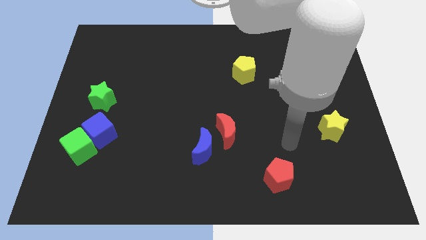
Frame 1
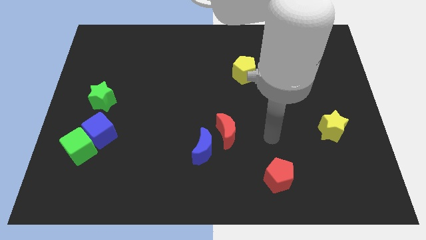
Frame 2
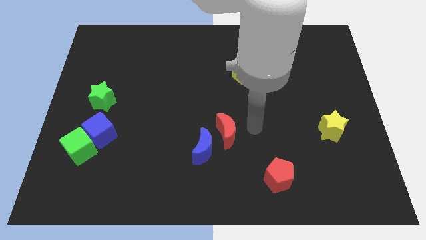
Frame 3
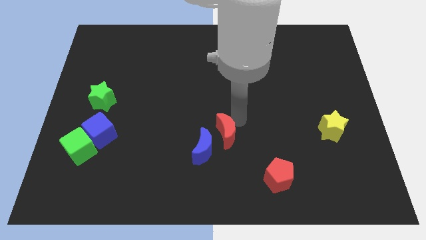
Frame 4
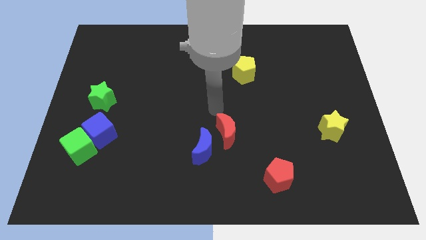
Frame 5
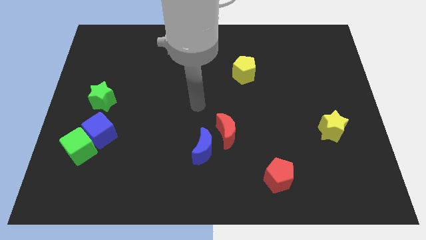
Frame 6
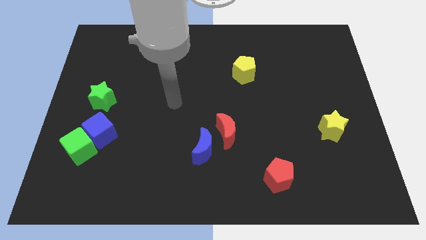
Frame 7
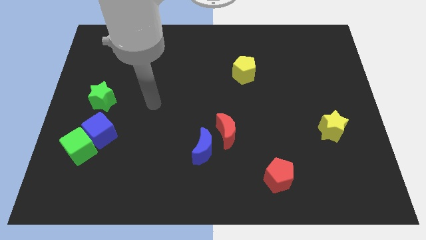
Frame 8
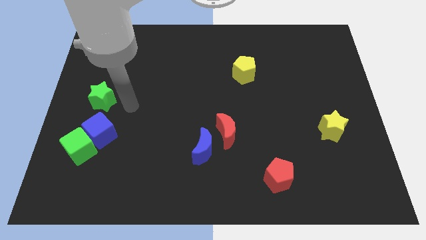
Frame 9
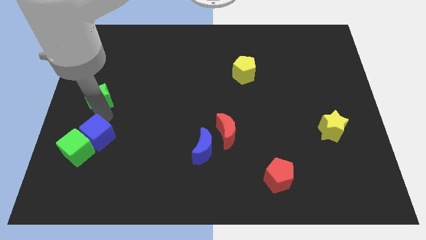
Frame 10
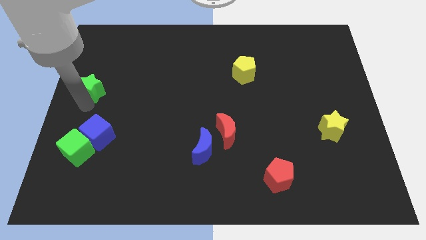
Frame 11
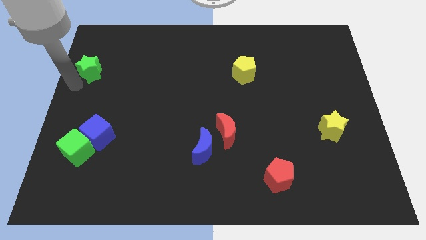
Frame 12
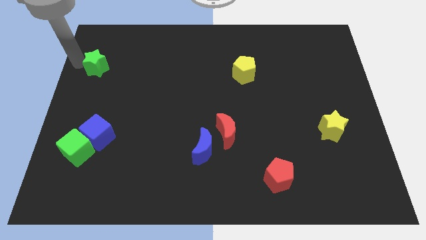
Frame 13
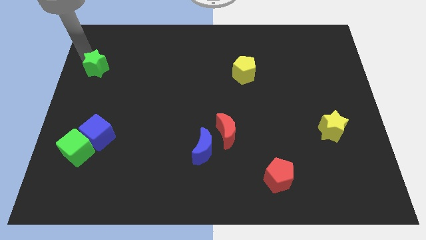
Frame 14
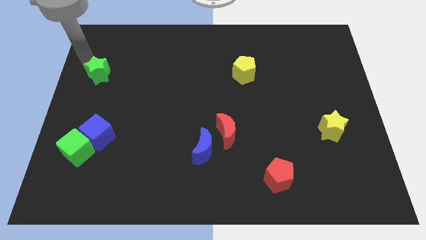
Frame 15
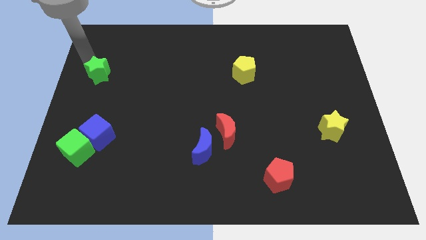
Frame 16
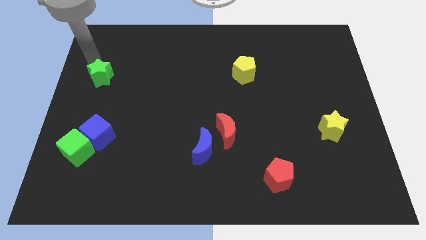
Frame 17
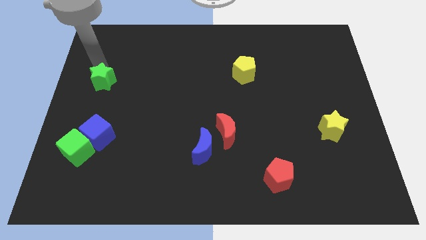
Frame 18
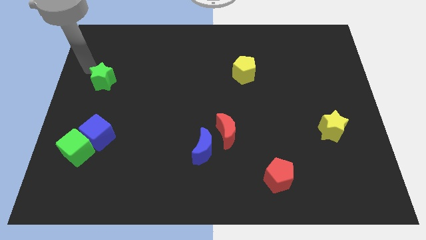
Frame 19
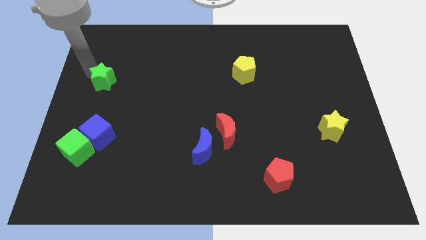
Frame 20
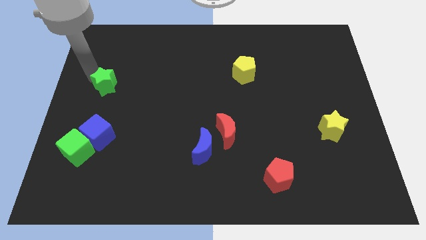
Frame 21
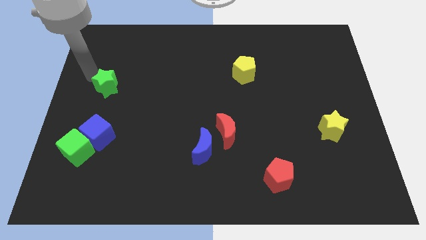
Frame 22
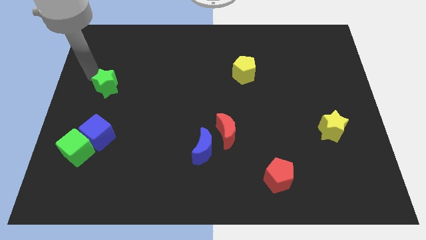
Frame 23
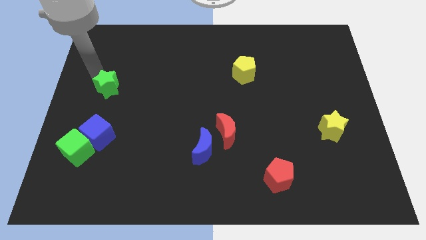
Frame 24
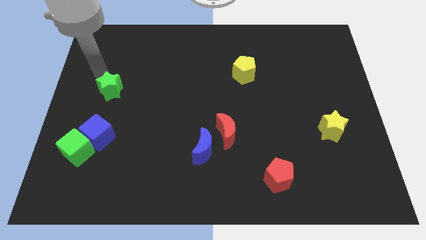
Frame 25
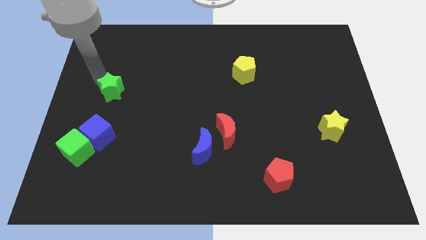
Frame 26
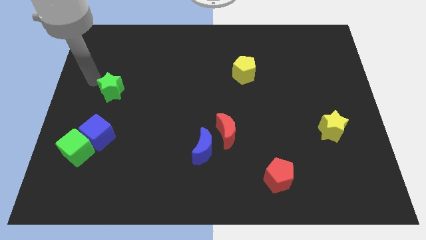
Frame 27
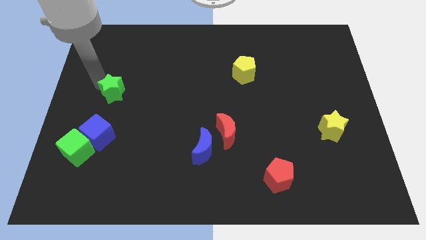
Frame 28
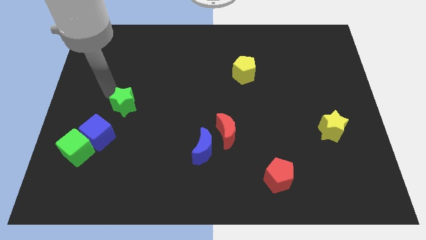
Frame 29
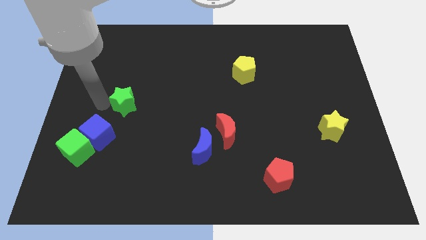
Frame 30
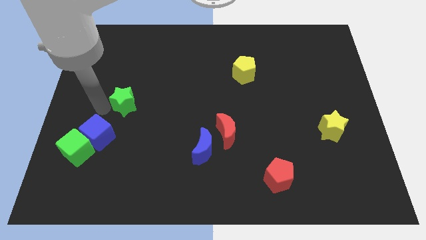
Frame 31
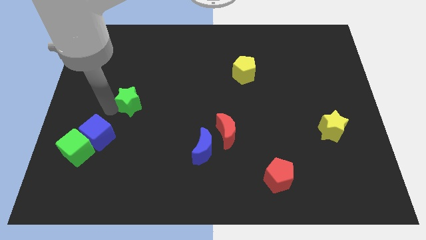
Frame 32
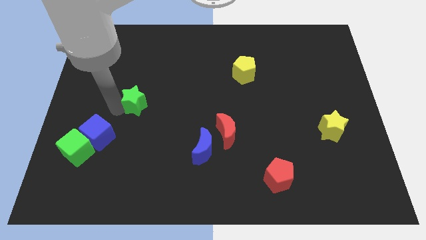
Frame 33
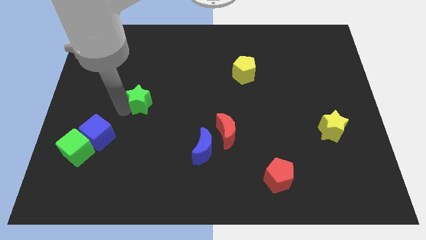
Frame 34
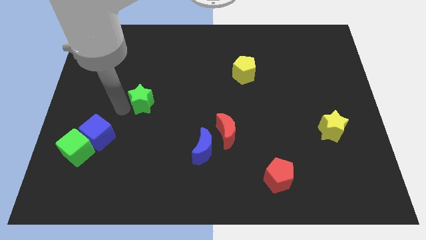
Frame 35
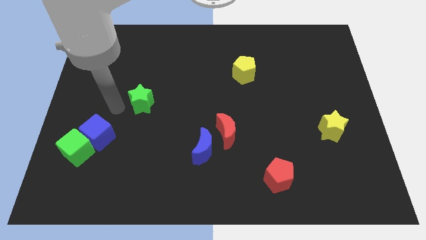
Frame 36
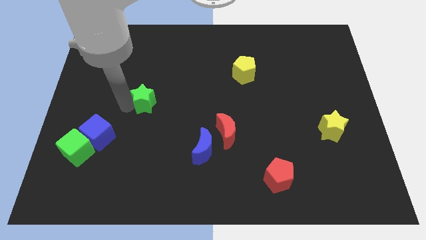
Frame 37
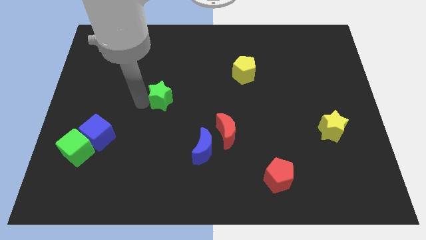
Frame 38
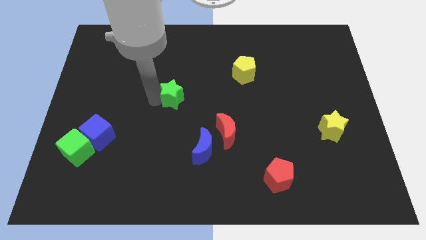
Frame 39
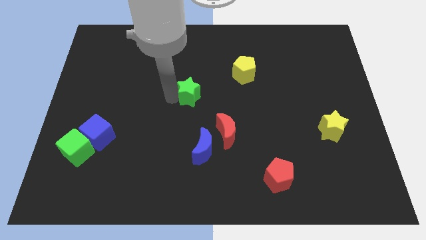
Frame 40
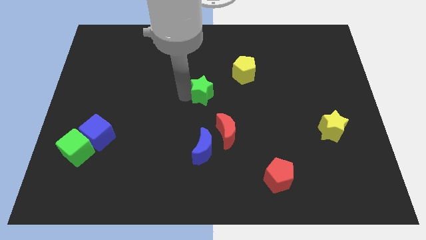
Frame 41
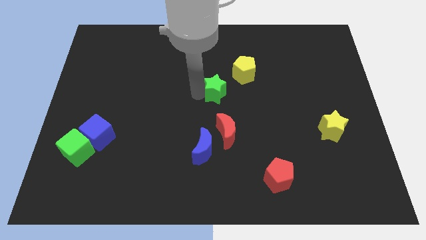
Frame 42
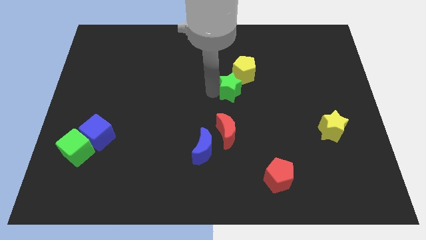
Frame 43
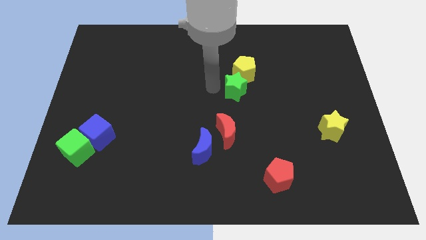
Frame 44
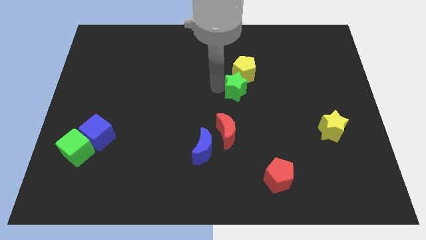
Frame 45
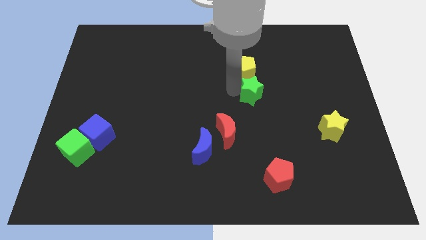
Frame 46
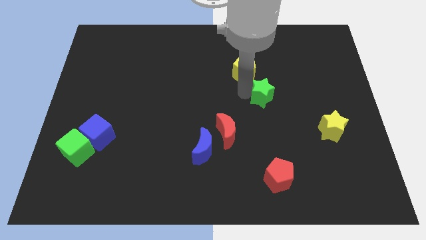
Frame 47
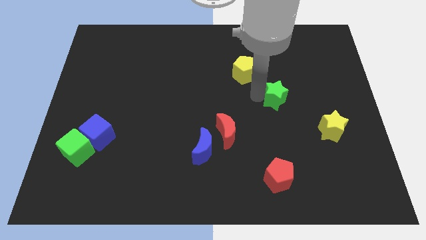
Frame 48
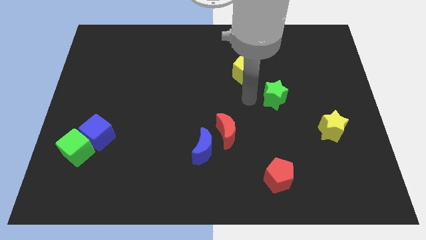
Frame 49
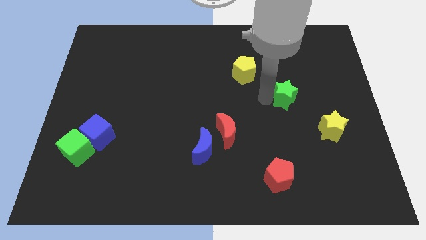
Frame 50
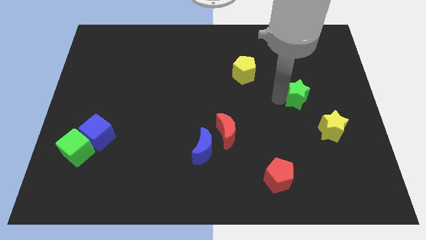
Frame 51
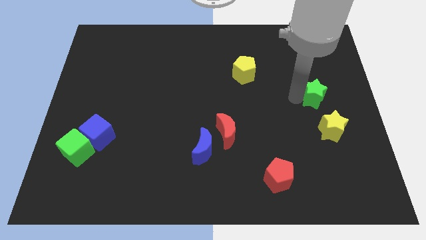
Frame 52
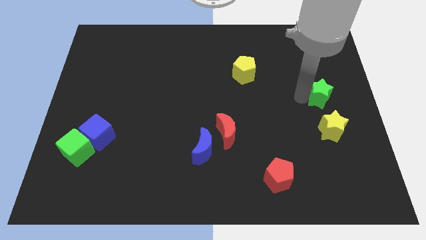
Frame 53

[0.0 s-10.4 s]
move the green star to the right side

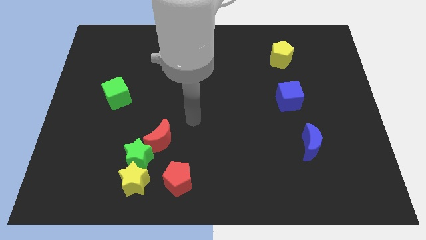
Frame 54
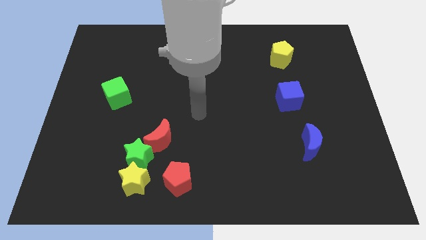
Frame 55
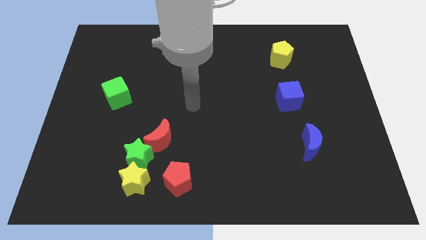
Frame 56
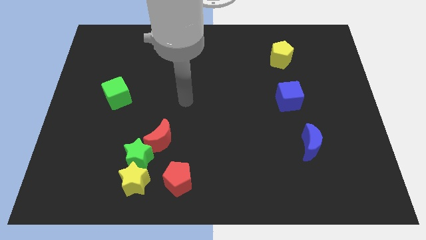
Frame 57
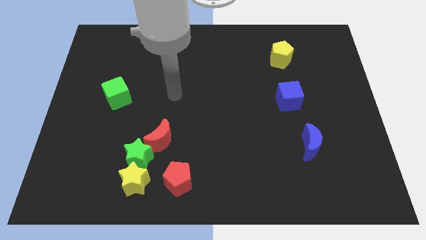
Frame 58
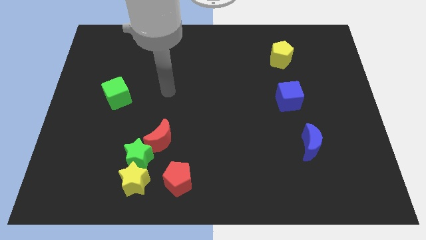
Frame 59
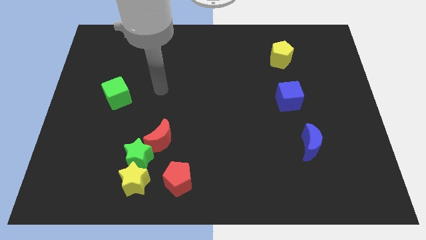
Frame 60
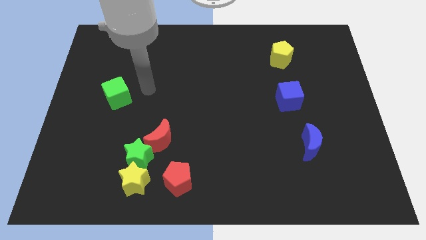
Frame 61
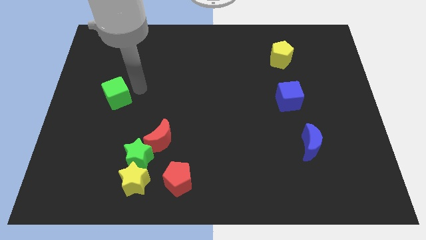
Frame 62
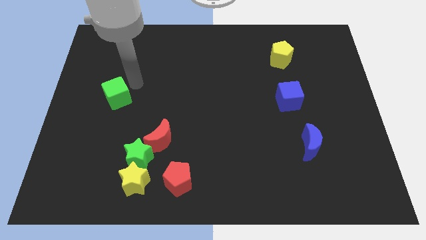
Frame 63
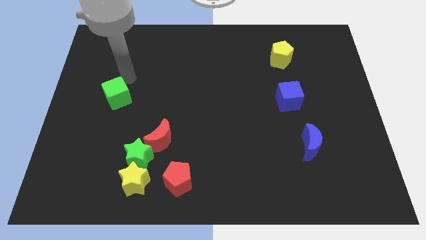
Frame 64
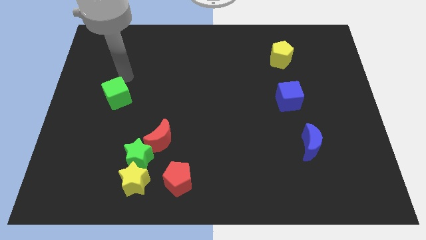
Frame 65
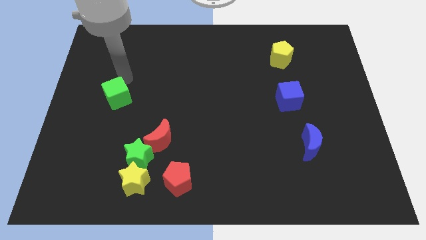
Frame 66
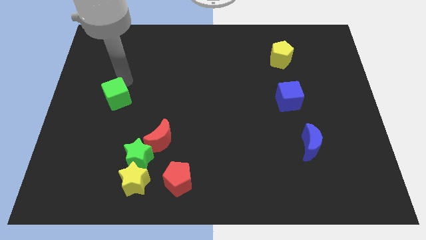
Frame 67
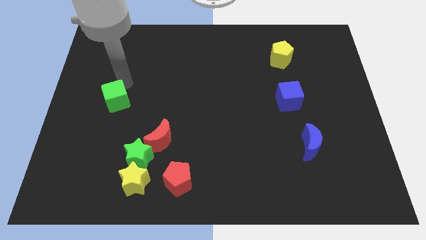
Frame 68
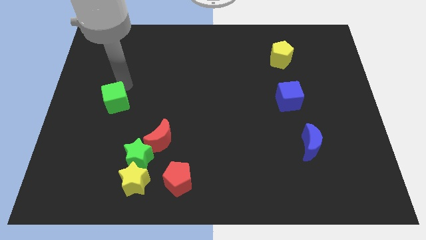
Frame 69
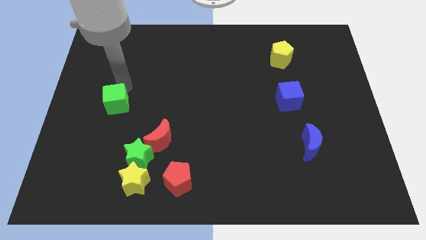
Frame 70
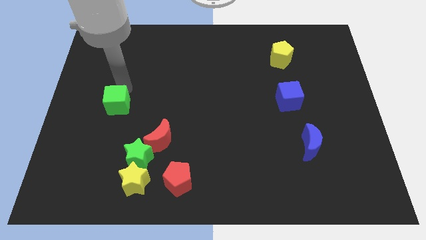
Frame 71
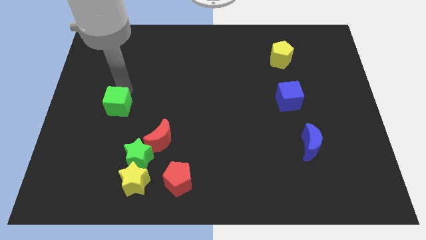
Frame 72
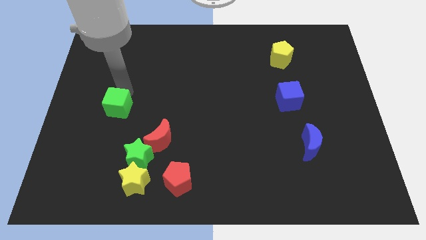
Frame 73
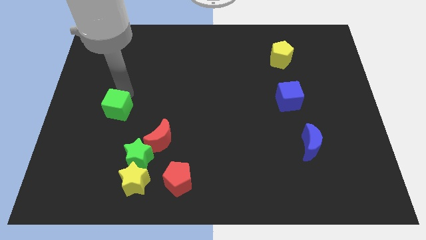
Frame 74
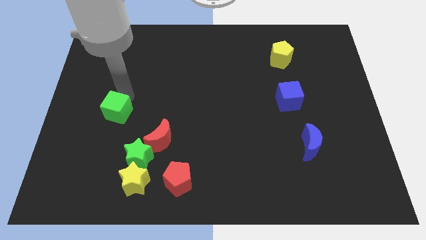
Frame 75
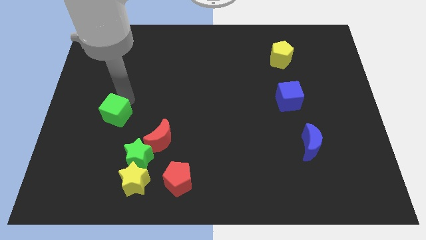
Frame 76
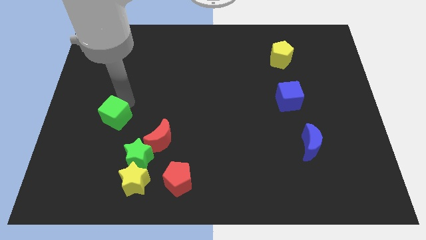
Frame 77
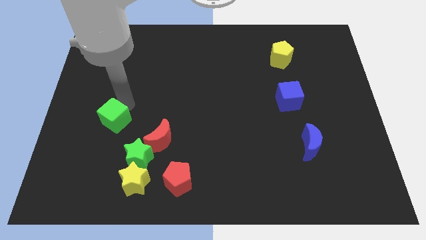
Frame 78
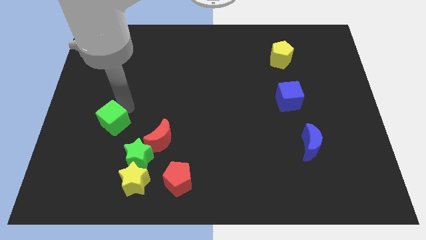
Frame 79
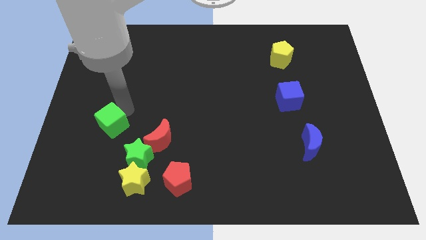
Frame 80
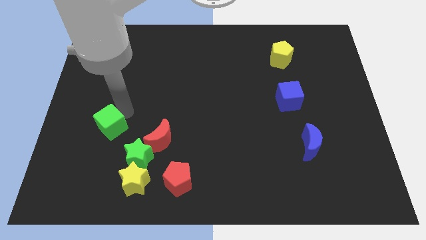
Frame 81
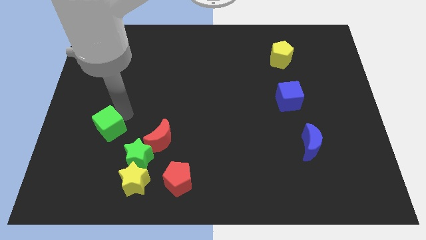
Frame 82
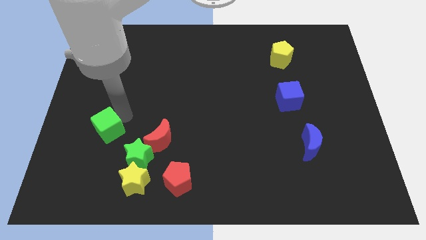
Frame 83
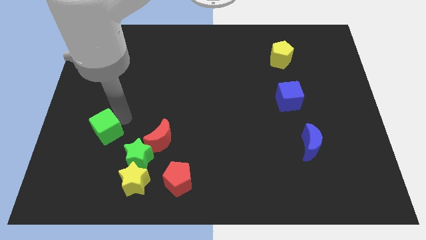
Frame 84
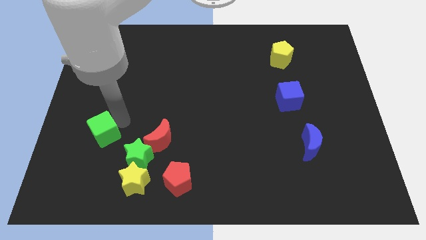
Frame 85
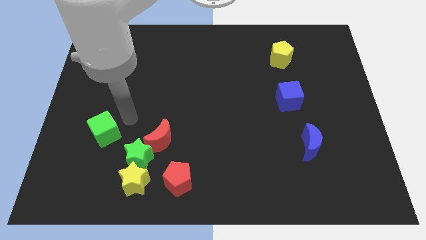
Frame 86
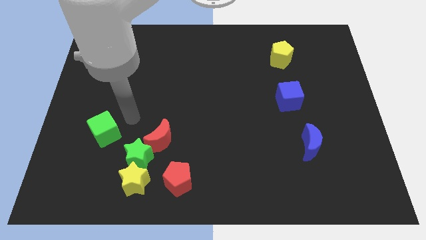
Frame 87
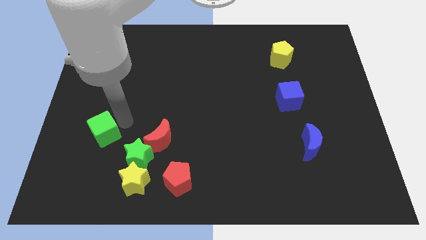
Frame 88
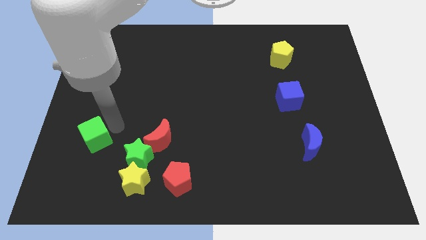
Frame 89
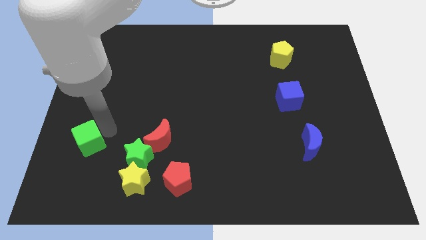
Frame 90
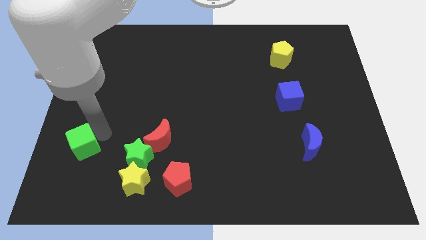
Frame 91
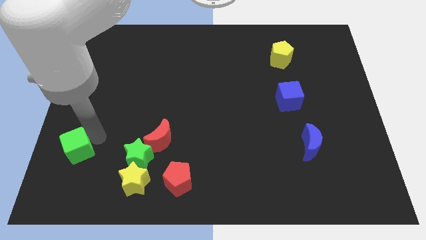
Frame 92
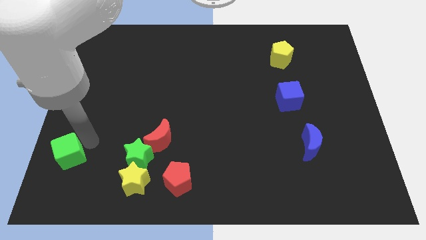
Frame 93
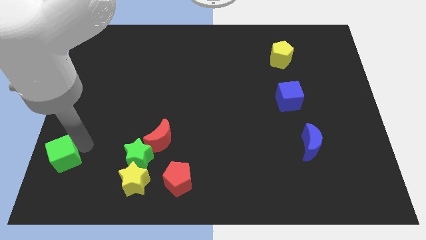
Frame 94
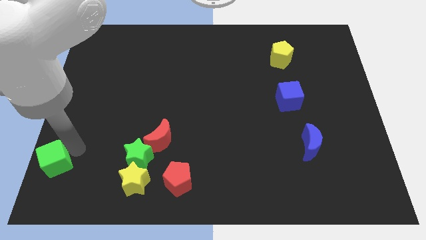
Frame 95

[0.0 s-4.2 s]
slide the green cube to the lower left corner
